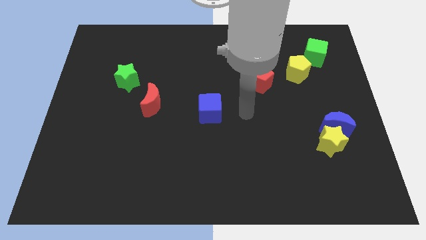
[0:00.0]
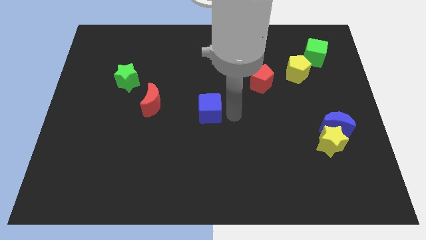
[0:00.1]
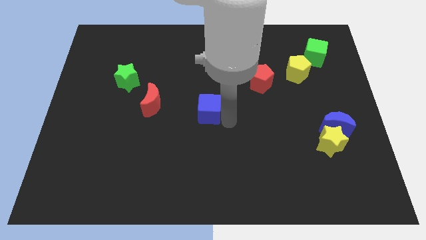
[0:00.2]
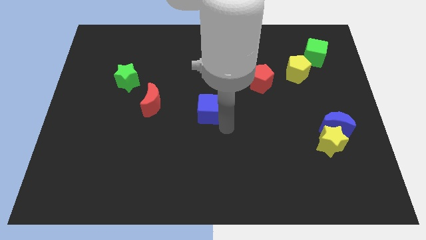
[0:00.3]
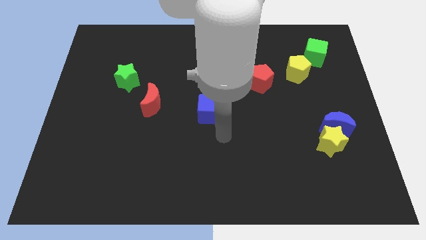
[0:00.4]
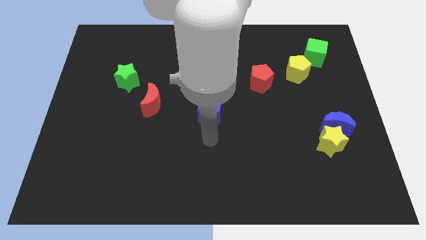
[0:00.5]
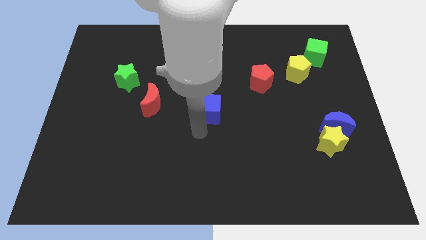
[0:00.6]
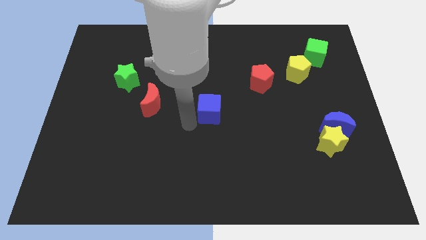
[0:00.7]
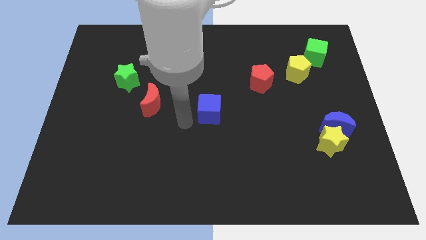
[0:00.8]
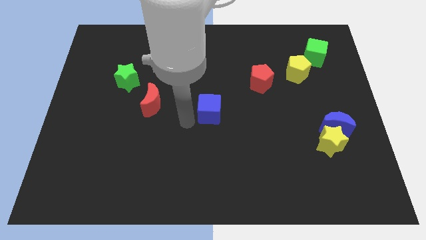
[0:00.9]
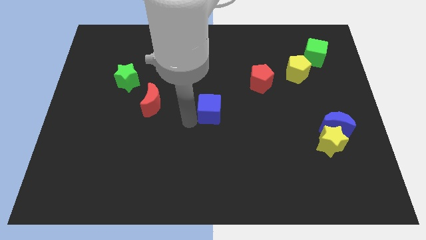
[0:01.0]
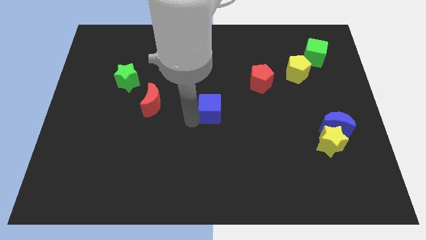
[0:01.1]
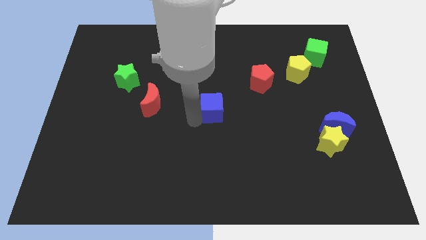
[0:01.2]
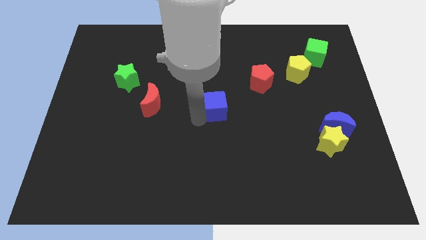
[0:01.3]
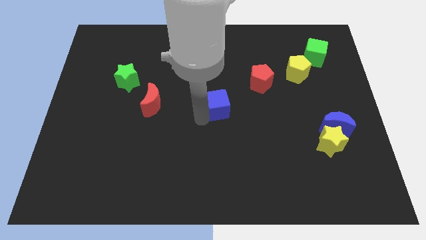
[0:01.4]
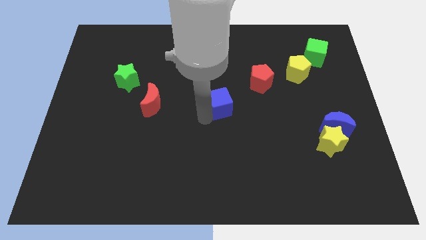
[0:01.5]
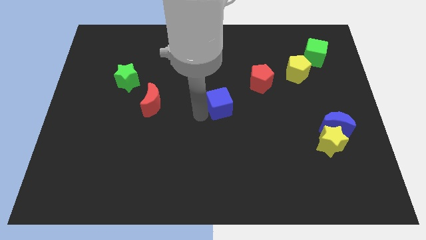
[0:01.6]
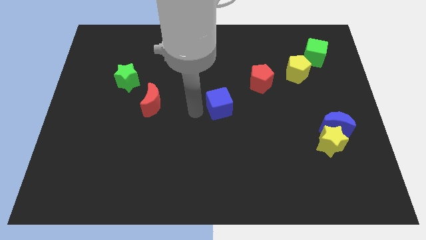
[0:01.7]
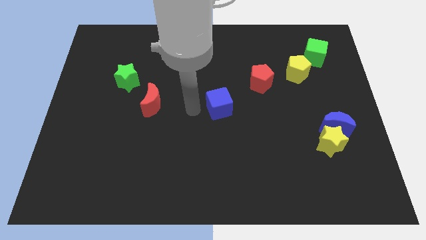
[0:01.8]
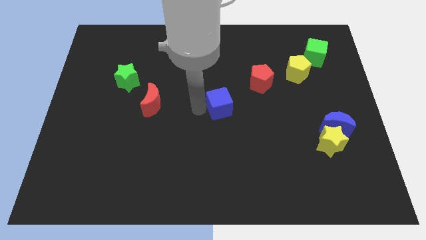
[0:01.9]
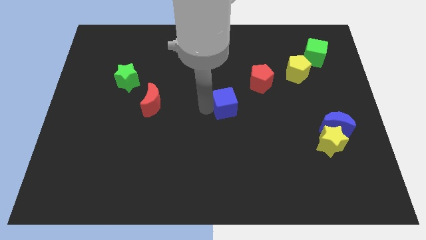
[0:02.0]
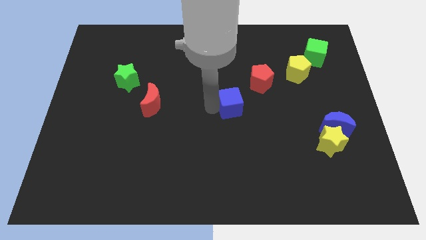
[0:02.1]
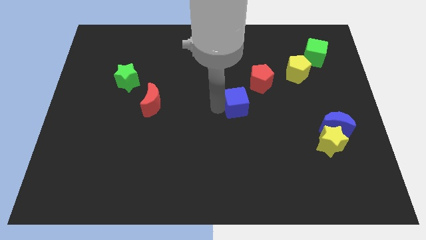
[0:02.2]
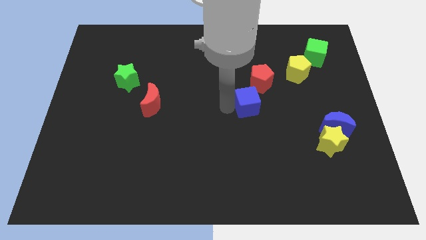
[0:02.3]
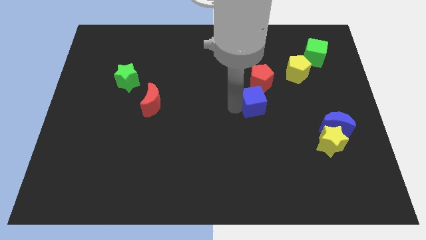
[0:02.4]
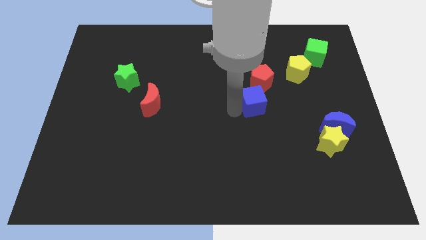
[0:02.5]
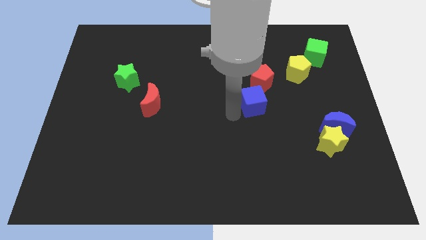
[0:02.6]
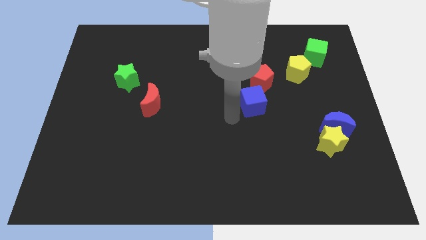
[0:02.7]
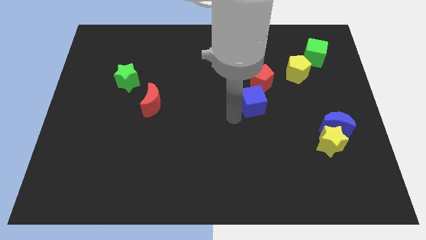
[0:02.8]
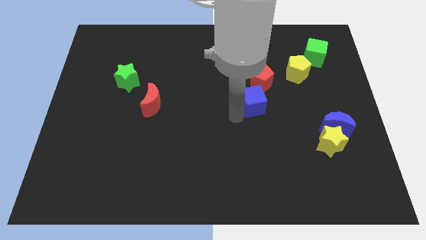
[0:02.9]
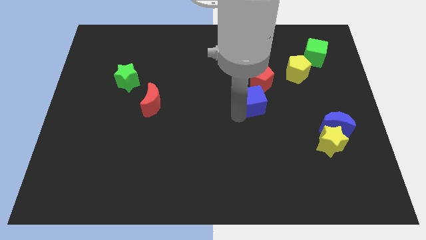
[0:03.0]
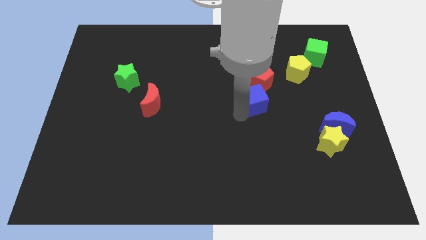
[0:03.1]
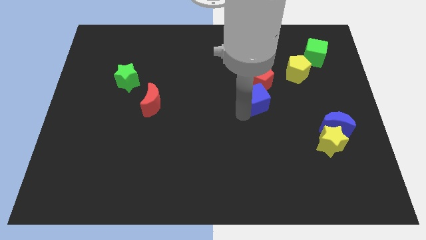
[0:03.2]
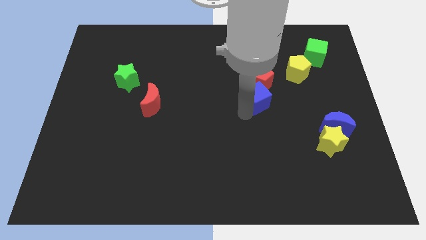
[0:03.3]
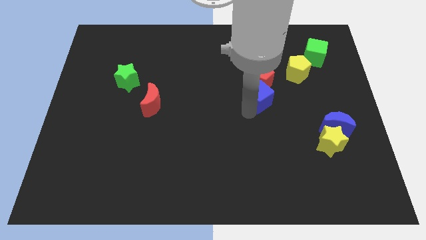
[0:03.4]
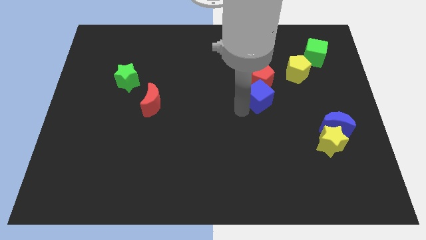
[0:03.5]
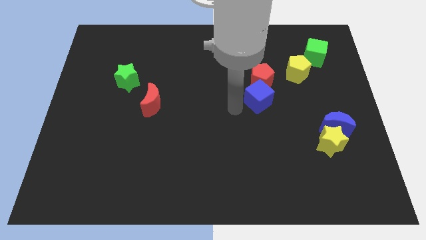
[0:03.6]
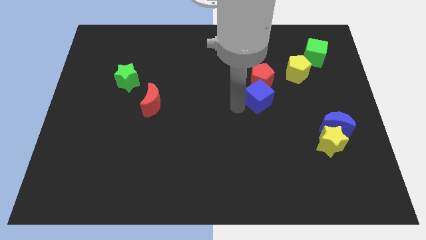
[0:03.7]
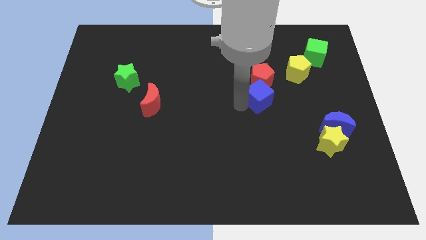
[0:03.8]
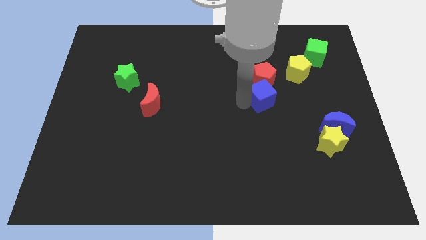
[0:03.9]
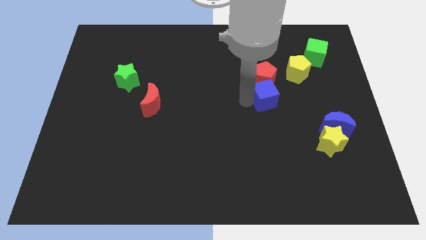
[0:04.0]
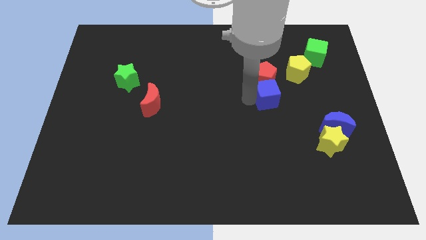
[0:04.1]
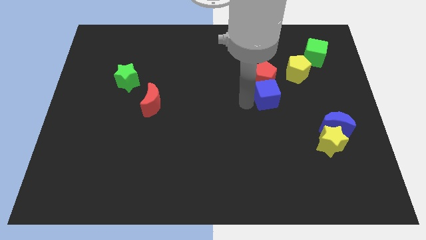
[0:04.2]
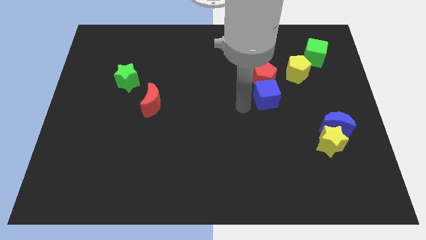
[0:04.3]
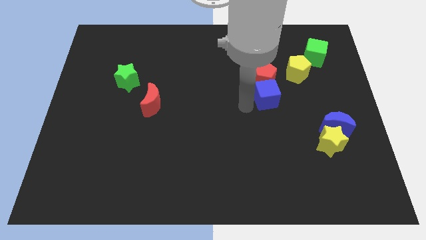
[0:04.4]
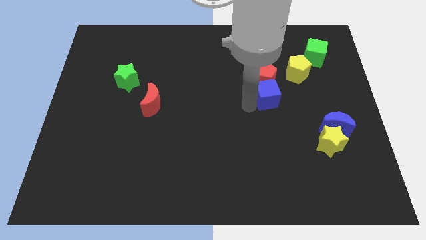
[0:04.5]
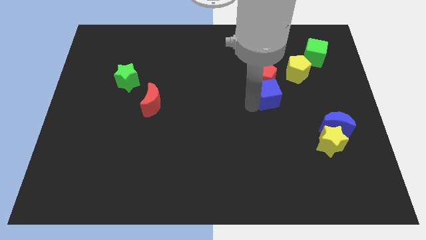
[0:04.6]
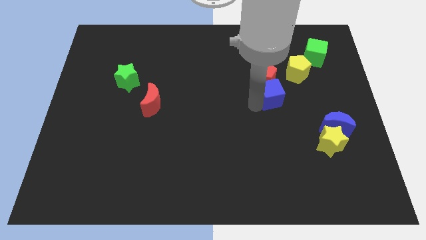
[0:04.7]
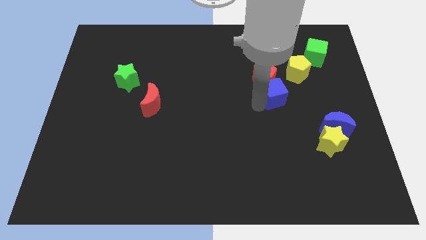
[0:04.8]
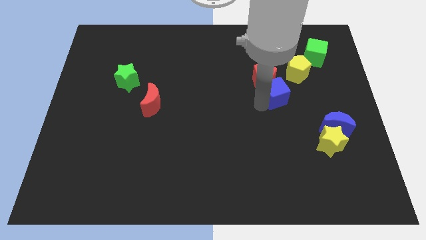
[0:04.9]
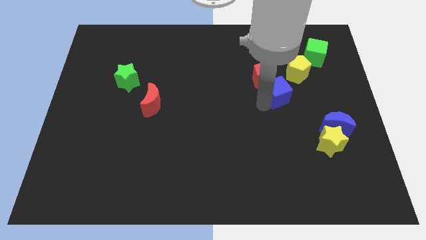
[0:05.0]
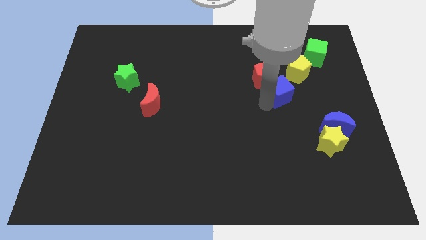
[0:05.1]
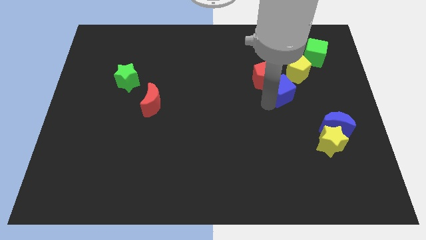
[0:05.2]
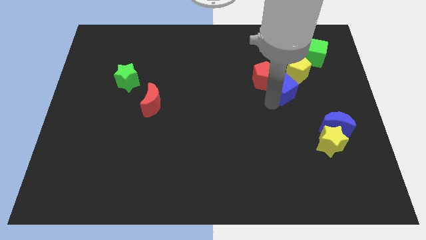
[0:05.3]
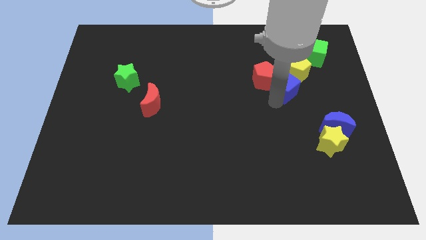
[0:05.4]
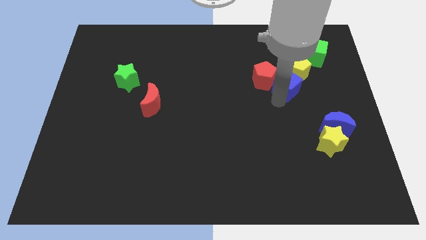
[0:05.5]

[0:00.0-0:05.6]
slide the blue cube to the yellow pentagon

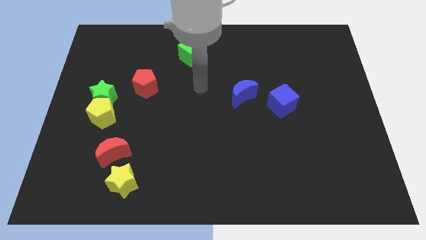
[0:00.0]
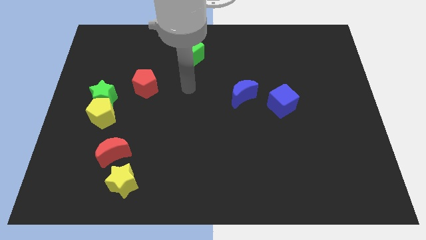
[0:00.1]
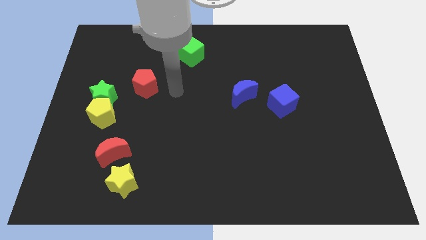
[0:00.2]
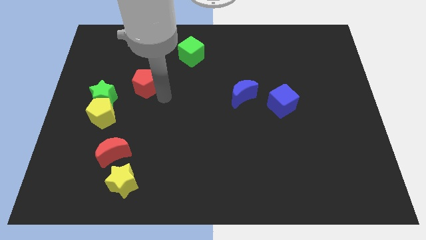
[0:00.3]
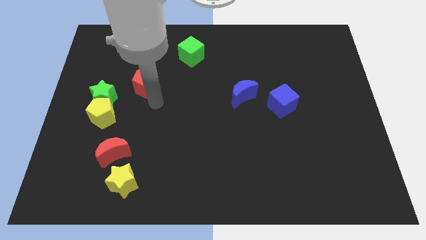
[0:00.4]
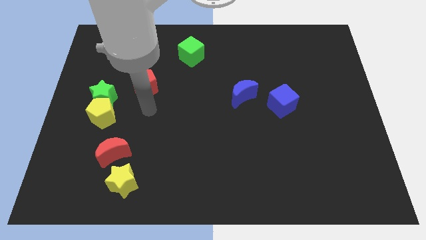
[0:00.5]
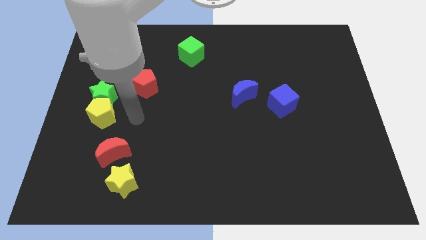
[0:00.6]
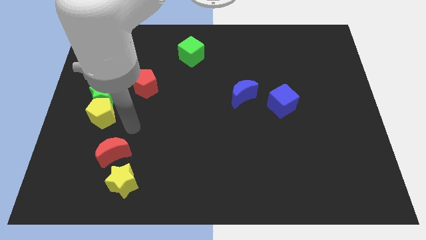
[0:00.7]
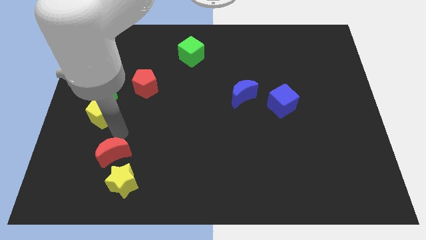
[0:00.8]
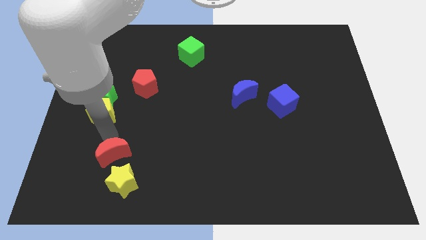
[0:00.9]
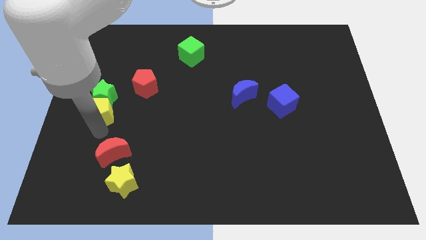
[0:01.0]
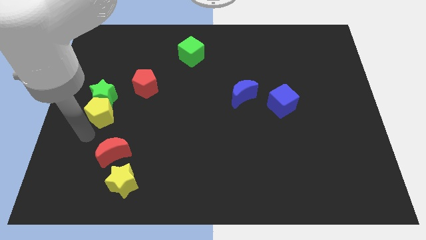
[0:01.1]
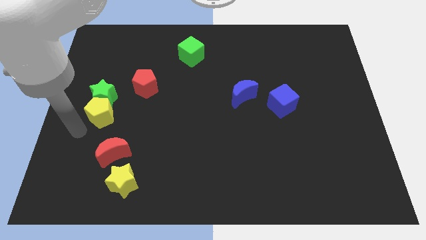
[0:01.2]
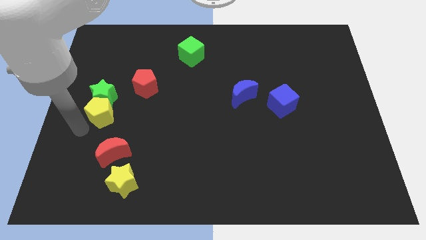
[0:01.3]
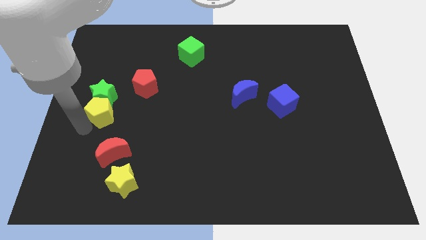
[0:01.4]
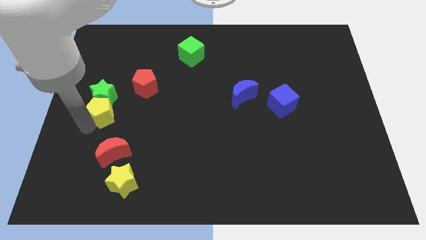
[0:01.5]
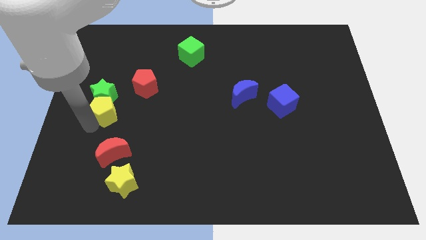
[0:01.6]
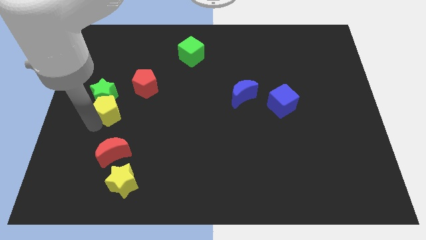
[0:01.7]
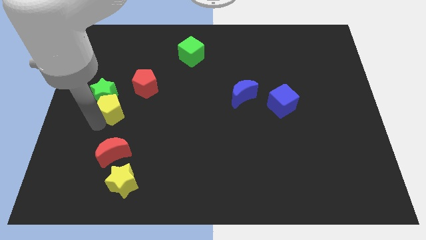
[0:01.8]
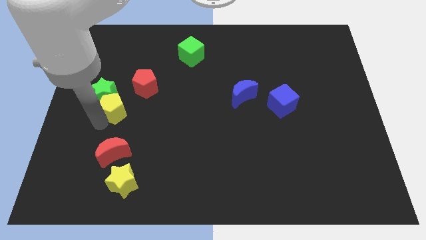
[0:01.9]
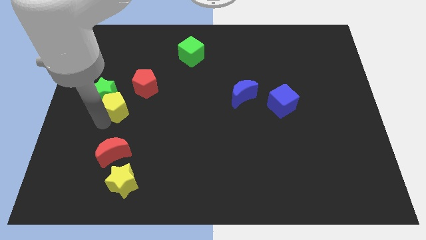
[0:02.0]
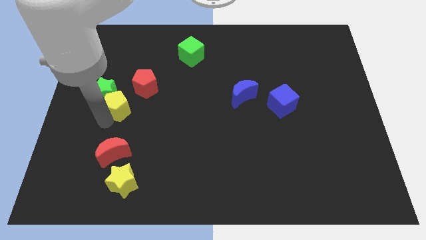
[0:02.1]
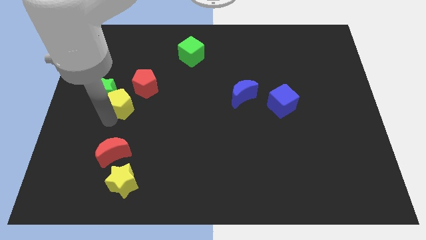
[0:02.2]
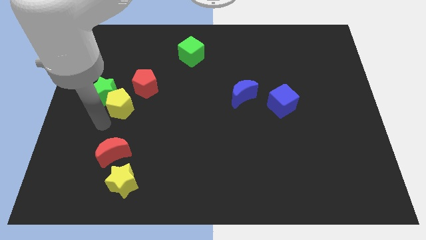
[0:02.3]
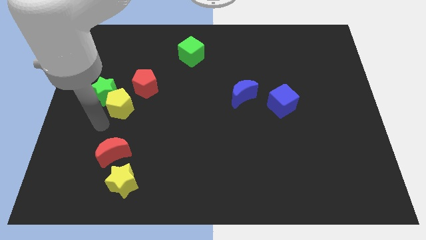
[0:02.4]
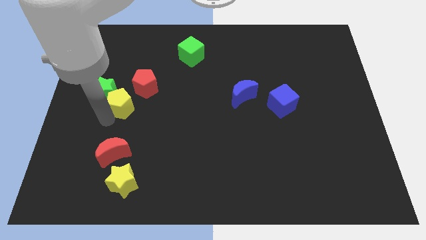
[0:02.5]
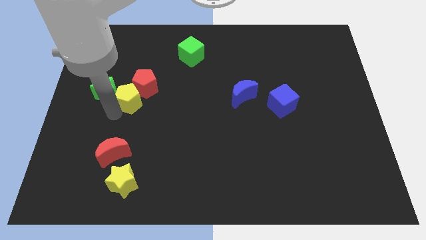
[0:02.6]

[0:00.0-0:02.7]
push the yellow pentagon towards the red pentagon
